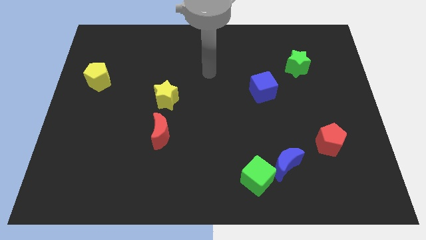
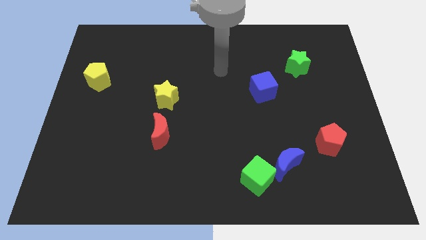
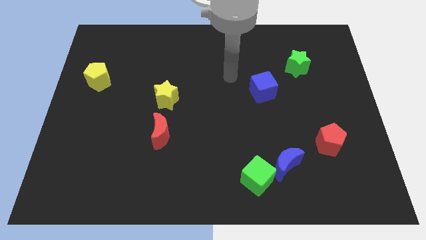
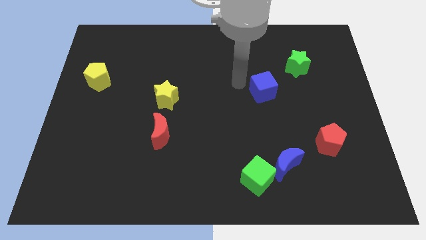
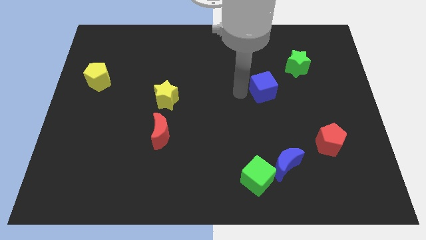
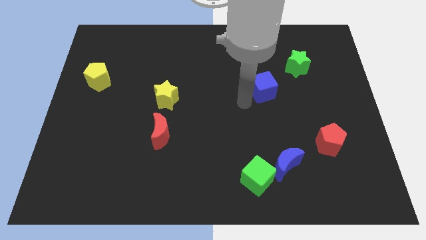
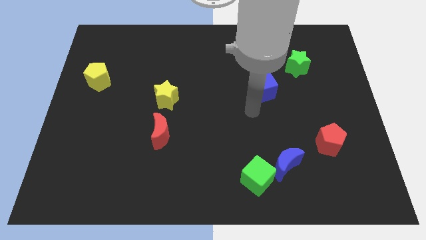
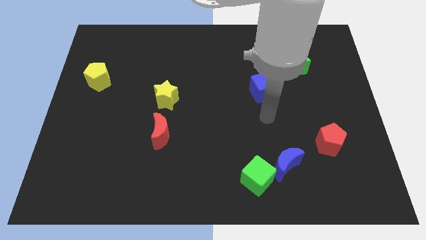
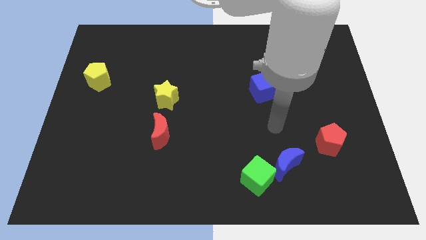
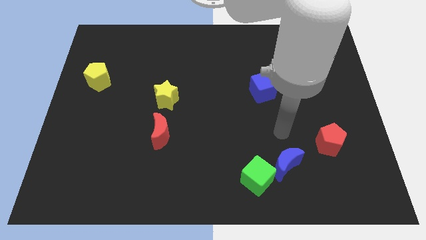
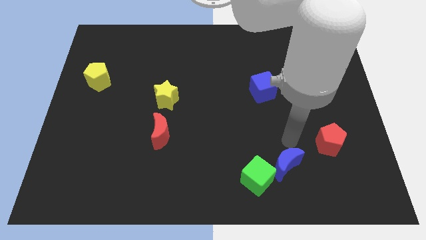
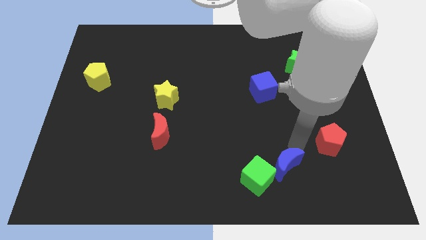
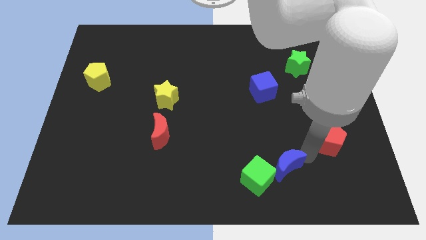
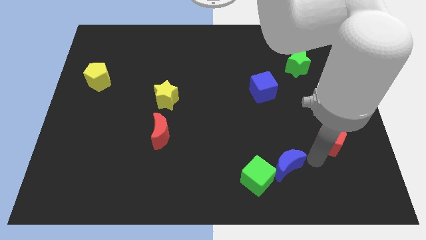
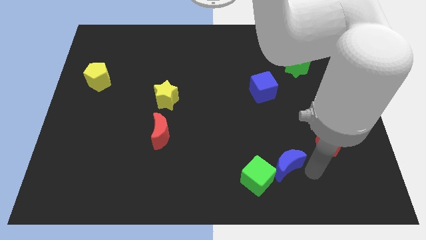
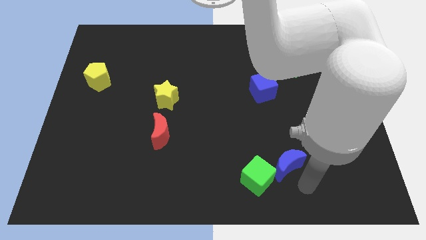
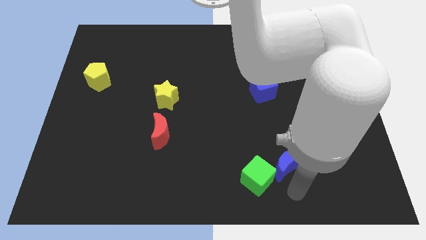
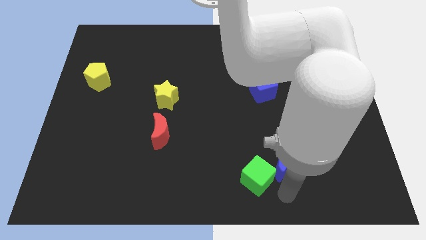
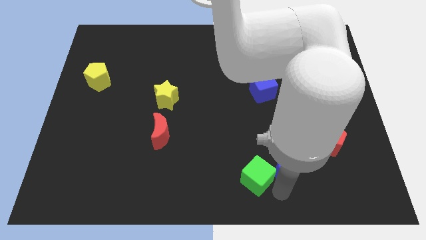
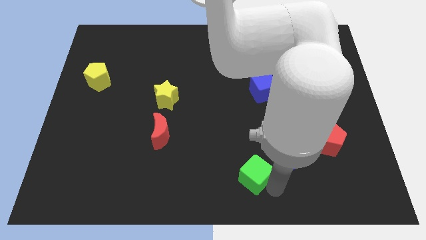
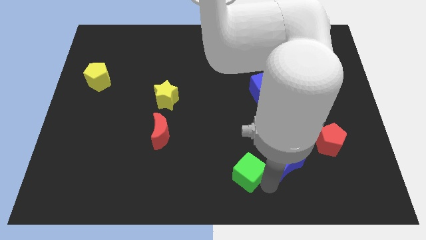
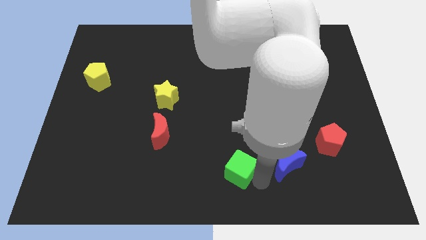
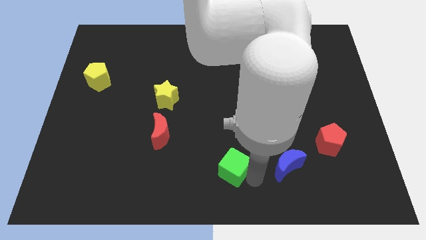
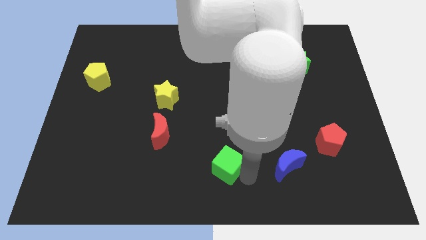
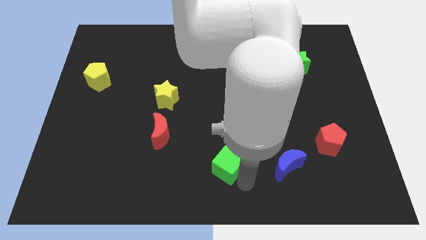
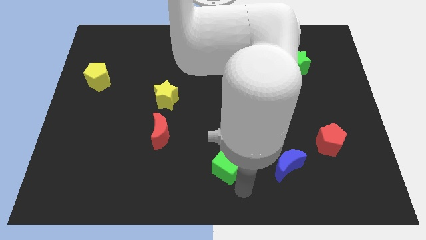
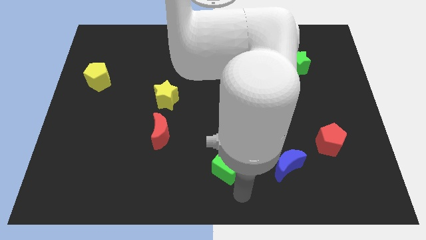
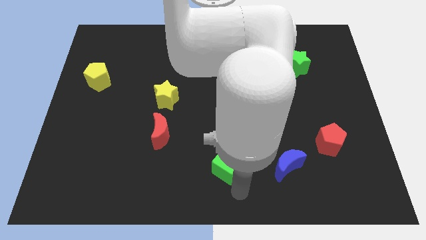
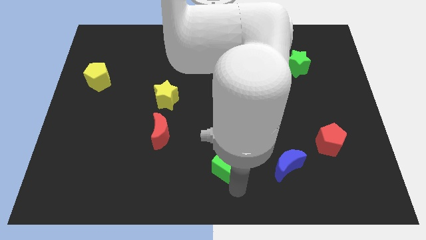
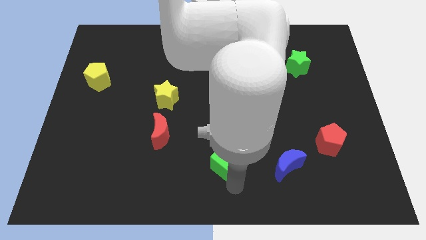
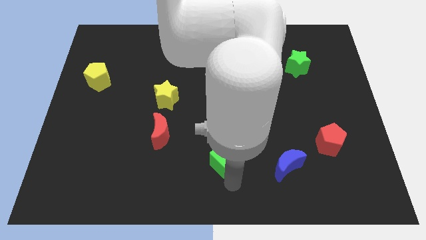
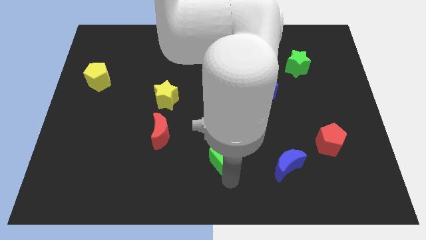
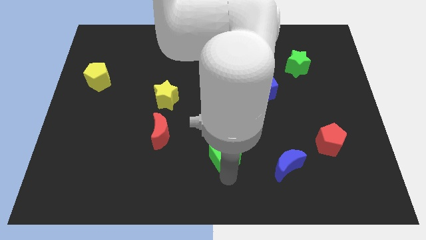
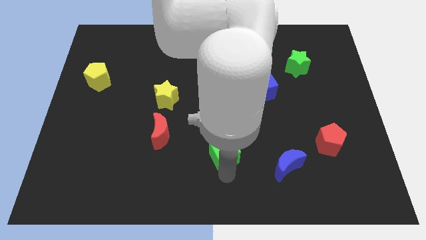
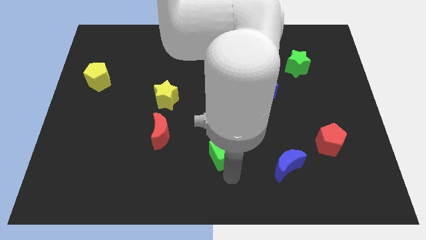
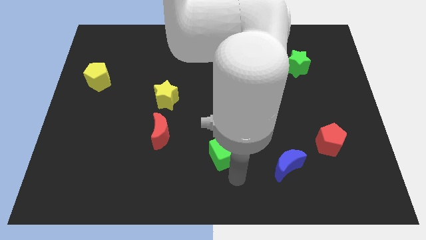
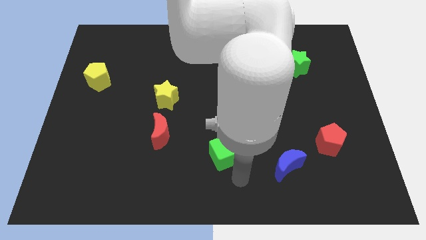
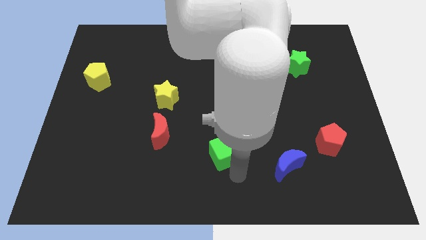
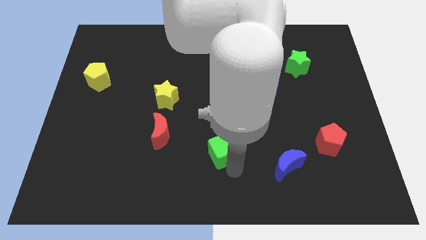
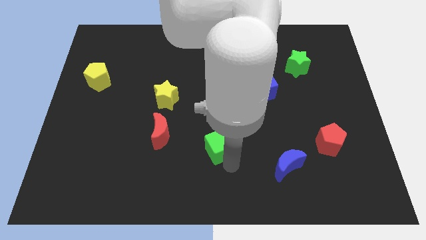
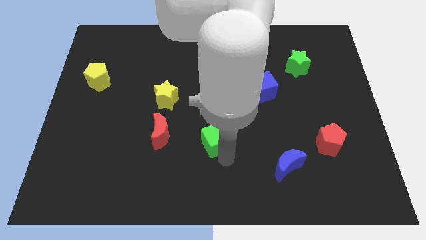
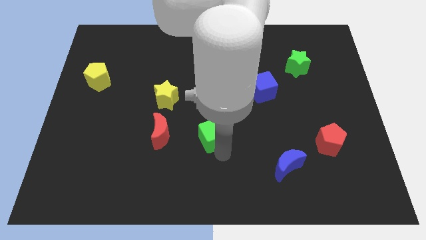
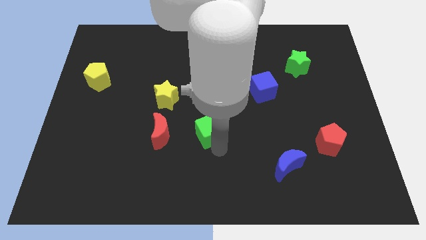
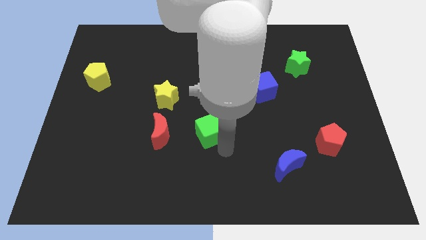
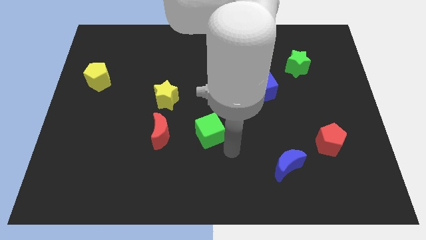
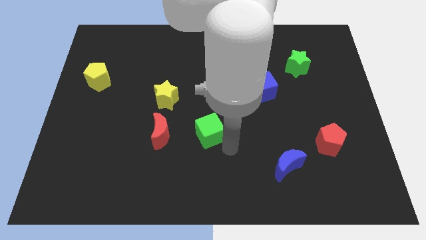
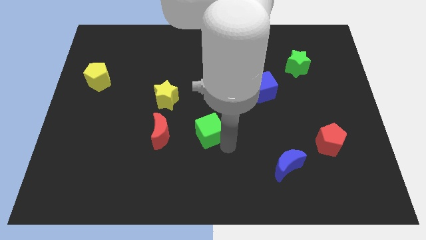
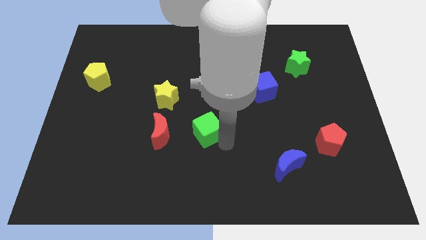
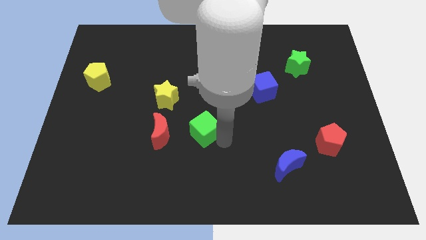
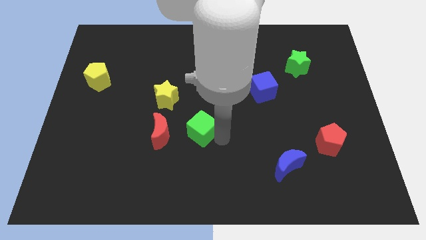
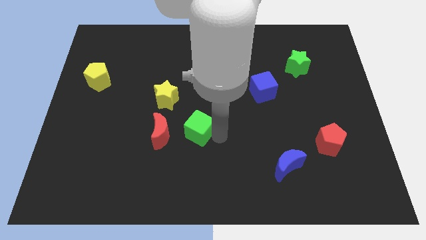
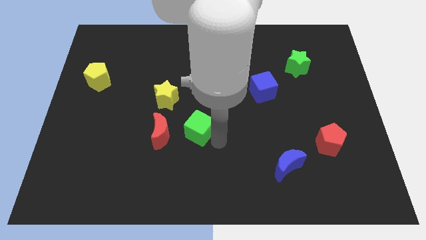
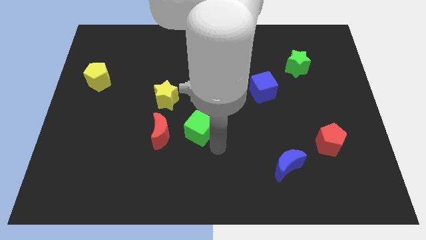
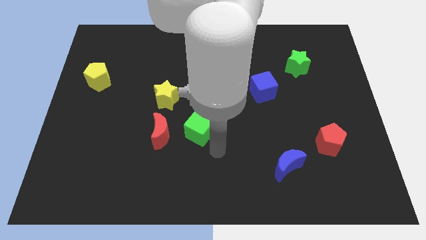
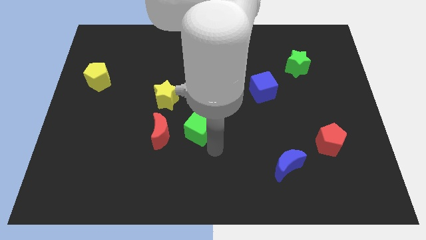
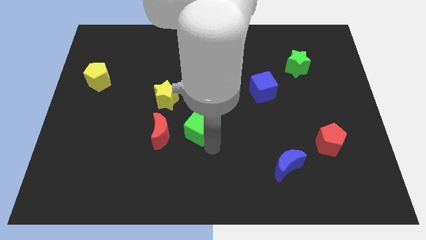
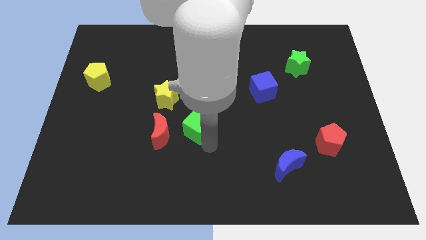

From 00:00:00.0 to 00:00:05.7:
put the green cube to the top right of the red moon
